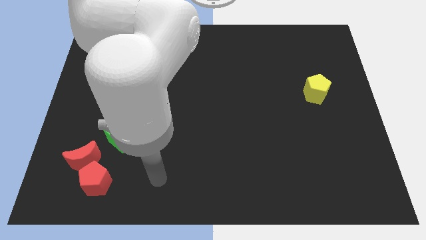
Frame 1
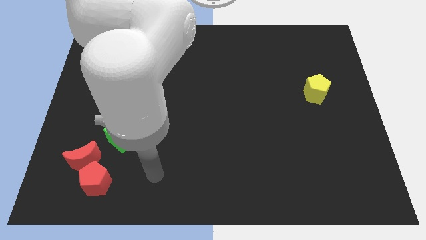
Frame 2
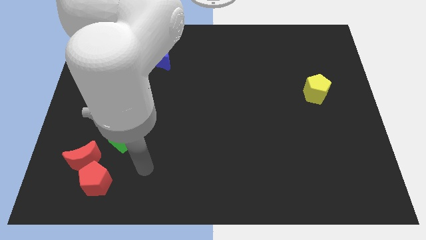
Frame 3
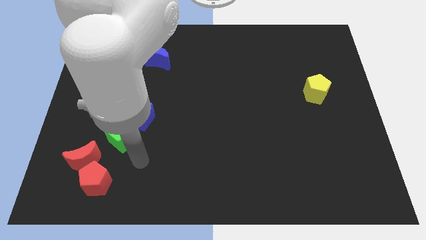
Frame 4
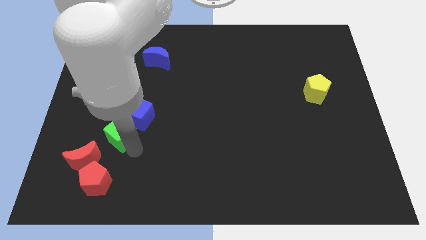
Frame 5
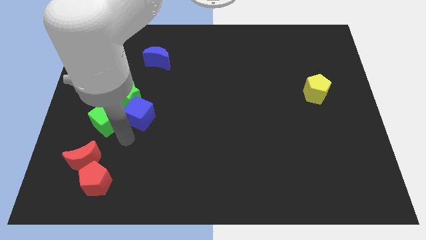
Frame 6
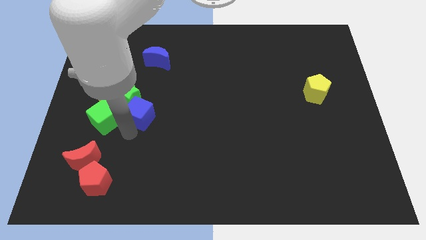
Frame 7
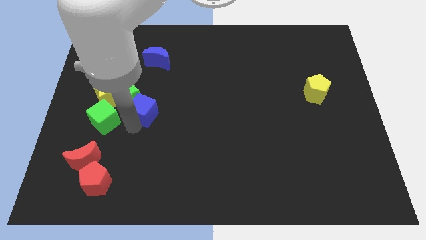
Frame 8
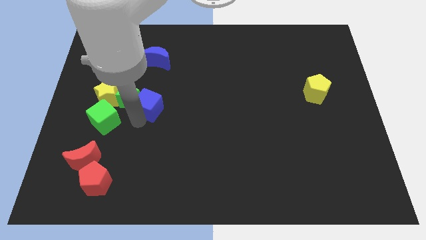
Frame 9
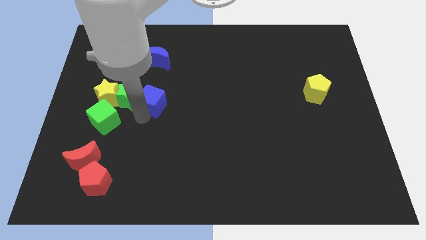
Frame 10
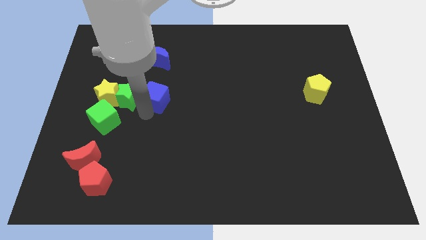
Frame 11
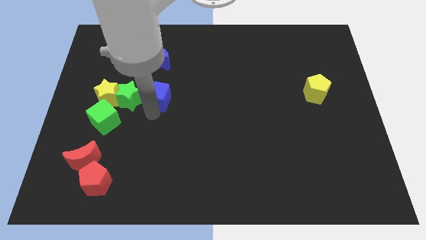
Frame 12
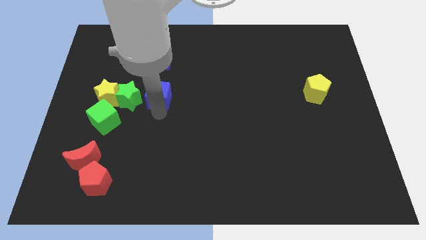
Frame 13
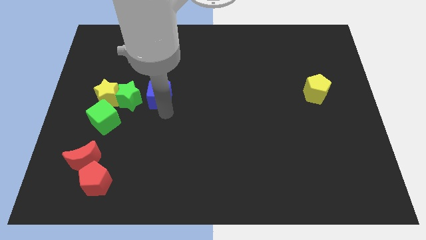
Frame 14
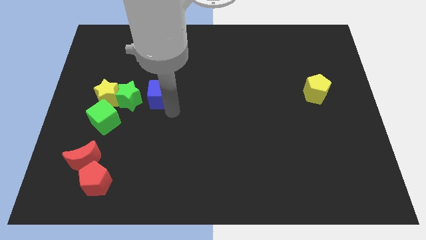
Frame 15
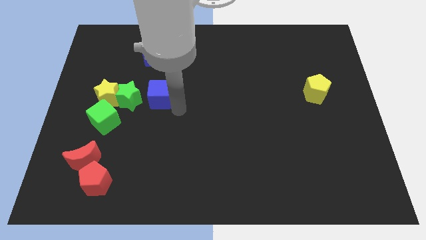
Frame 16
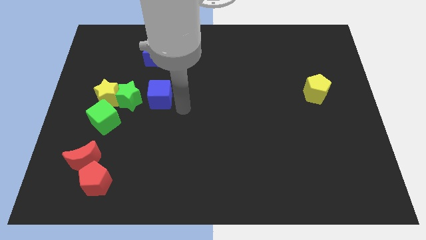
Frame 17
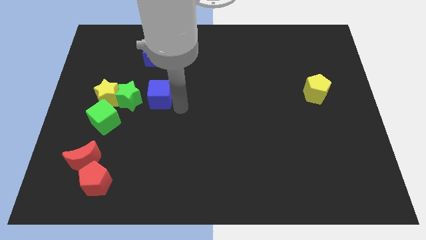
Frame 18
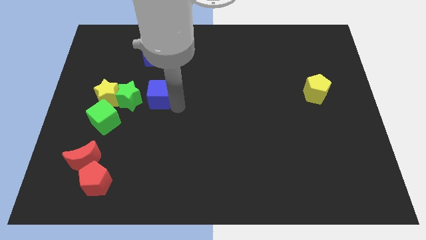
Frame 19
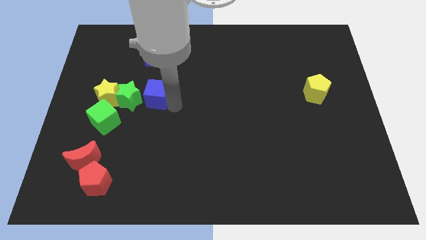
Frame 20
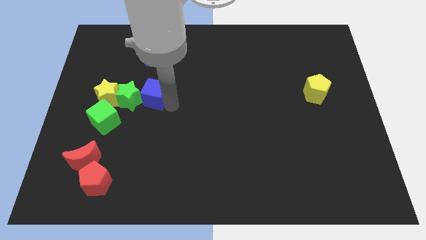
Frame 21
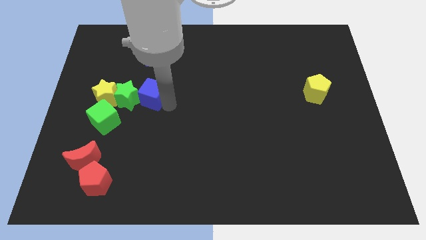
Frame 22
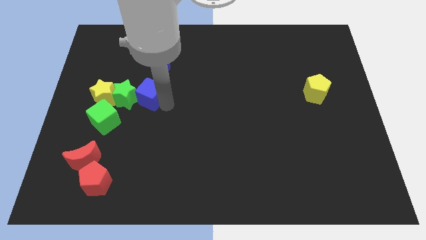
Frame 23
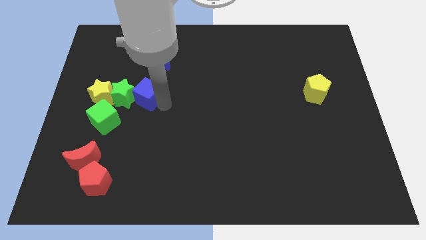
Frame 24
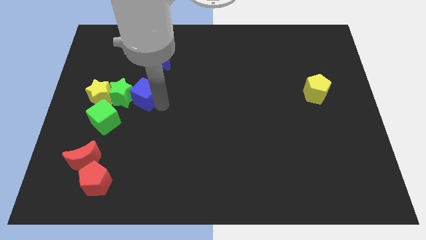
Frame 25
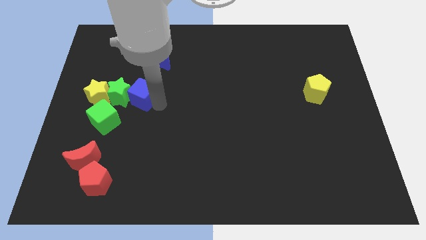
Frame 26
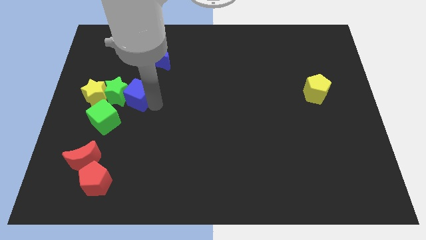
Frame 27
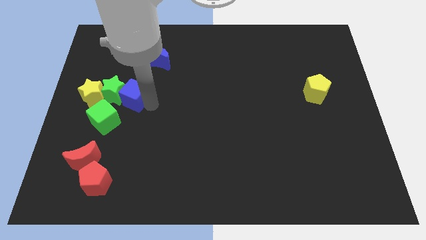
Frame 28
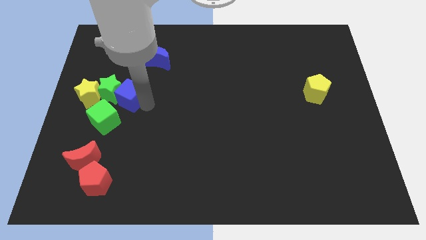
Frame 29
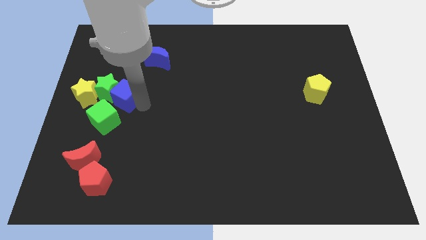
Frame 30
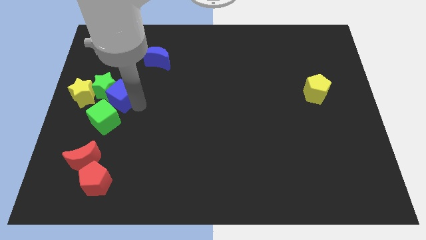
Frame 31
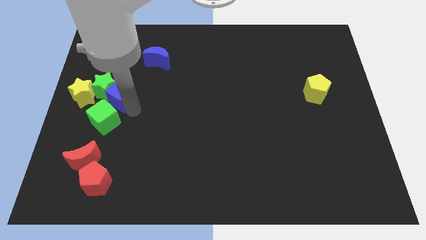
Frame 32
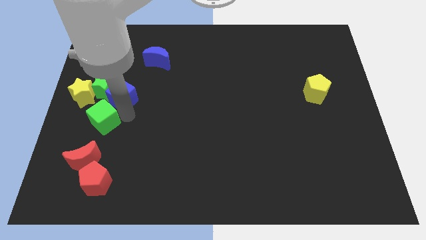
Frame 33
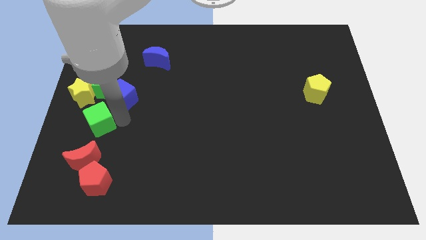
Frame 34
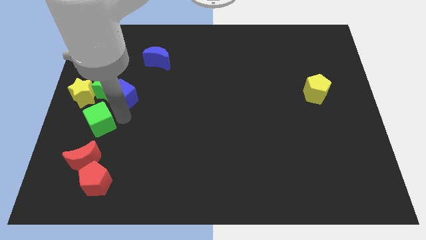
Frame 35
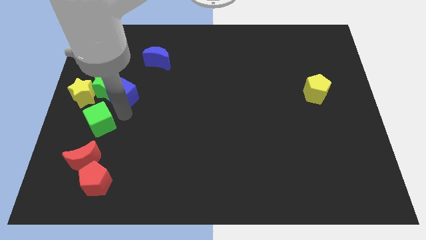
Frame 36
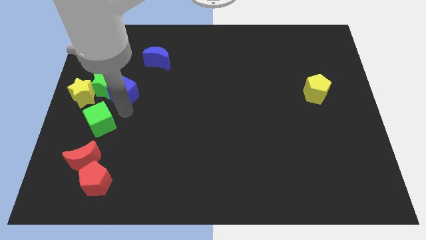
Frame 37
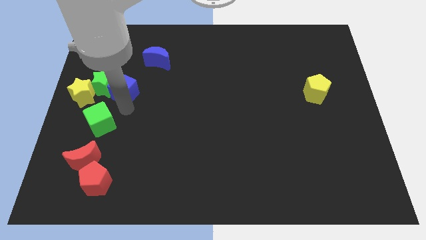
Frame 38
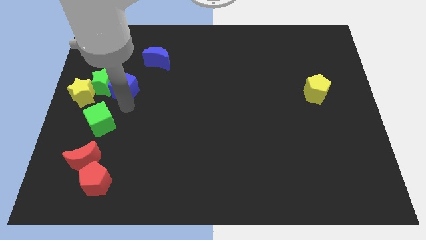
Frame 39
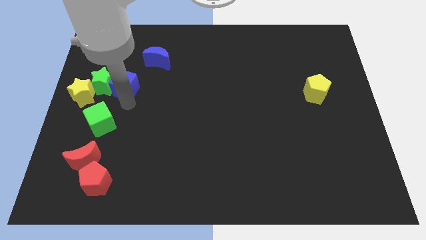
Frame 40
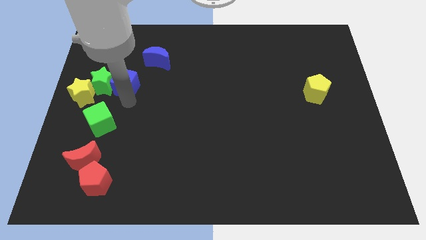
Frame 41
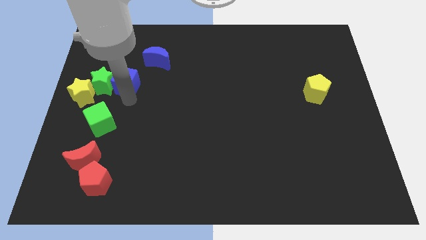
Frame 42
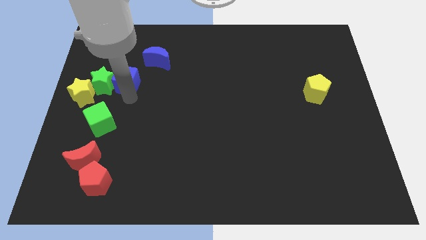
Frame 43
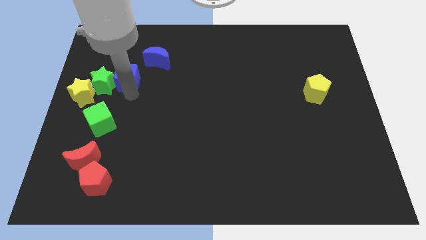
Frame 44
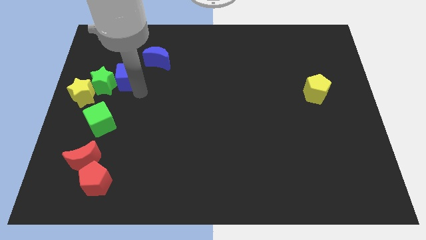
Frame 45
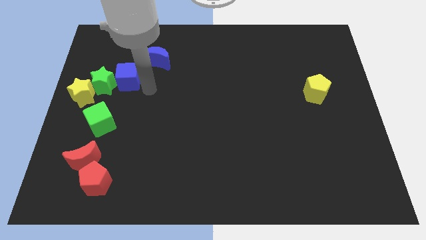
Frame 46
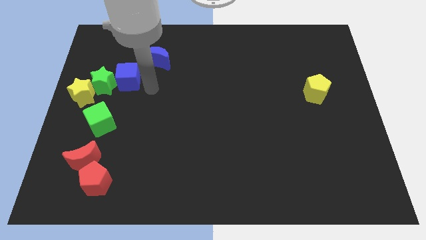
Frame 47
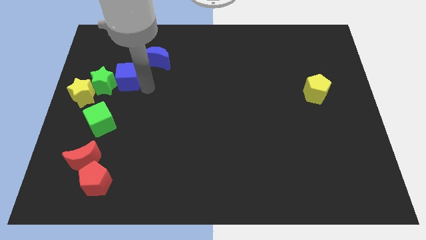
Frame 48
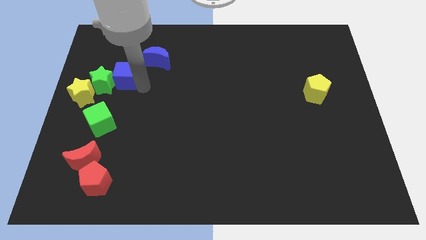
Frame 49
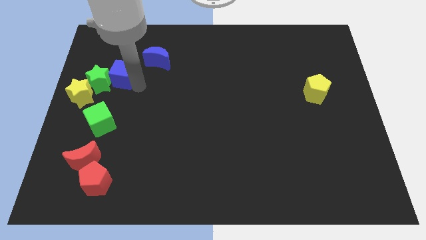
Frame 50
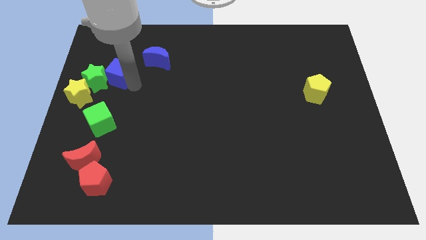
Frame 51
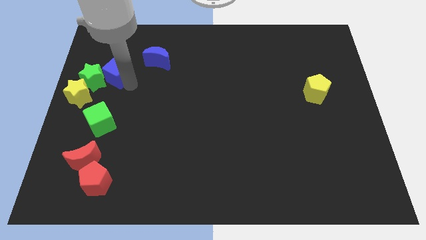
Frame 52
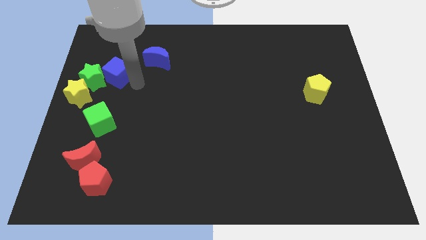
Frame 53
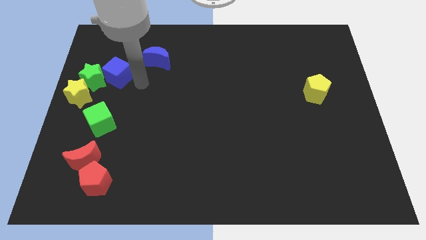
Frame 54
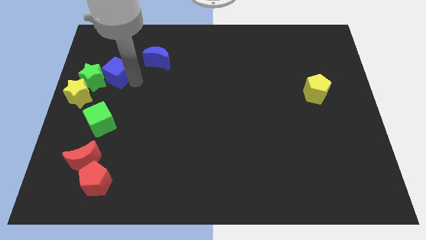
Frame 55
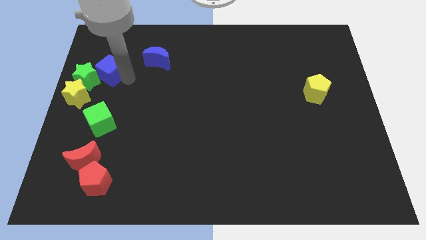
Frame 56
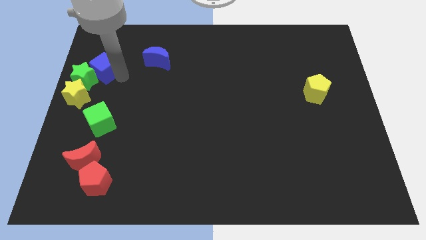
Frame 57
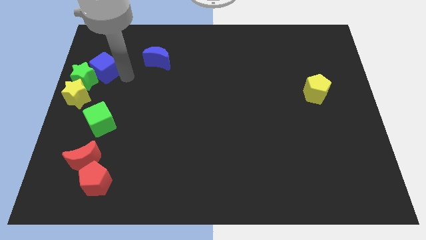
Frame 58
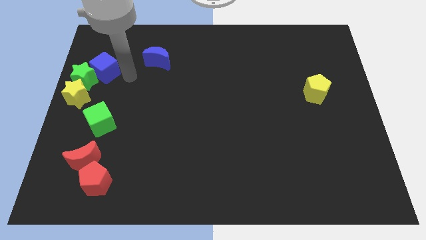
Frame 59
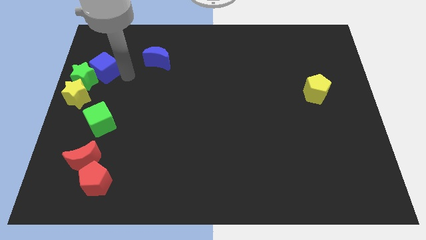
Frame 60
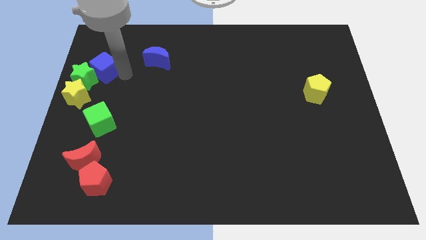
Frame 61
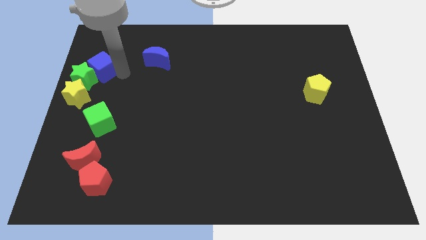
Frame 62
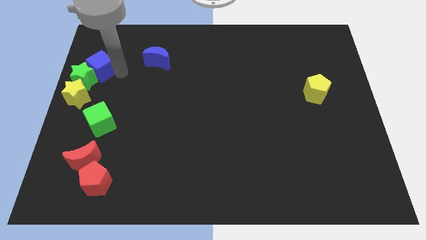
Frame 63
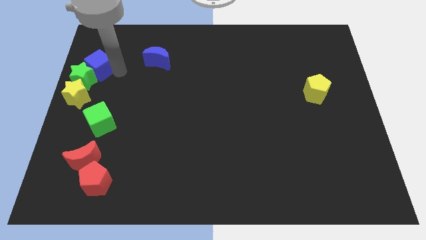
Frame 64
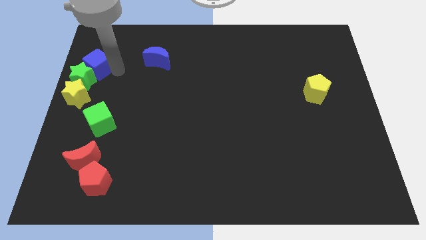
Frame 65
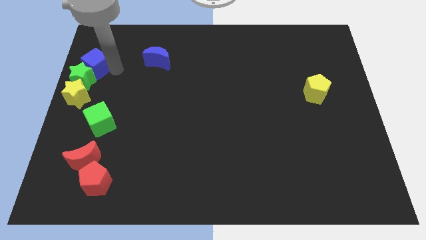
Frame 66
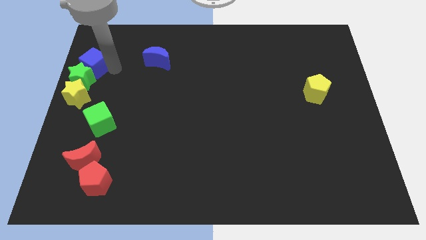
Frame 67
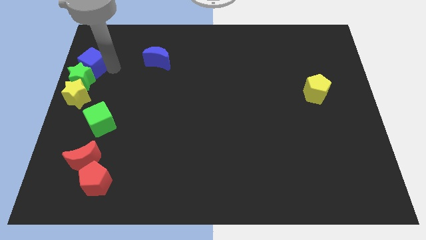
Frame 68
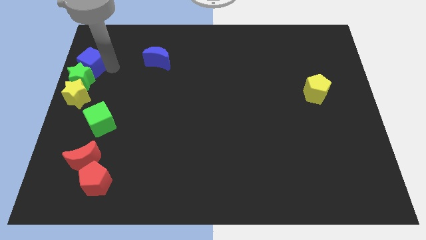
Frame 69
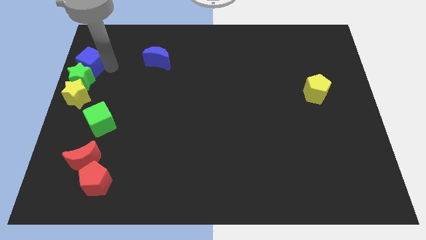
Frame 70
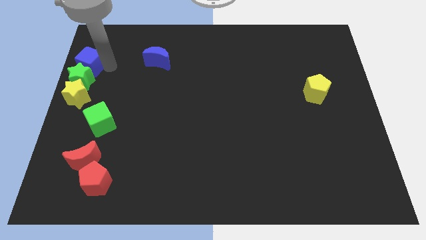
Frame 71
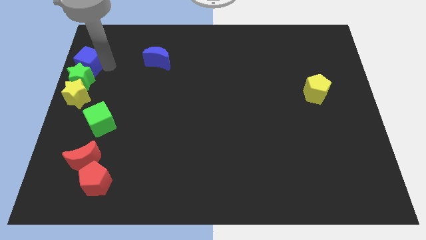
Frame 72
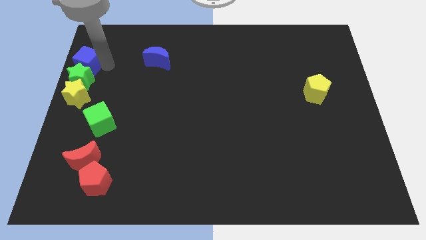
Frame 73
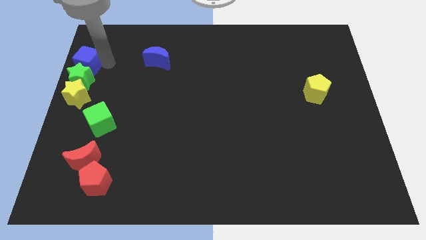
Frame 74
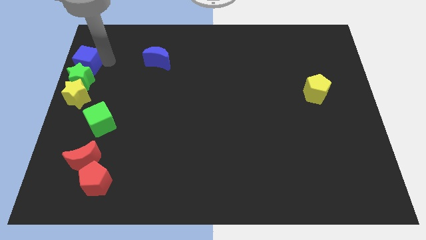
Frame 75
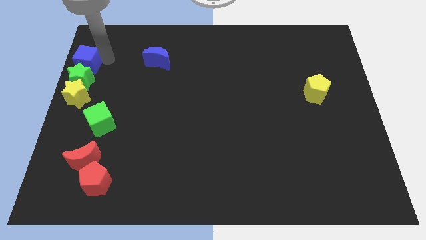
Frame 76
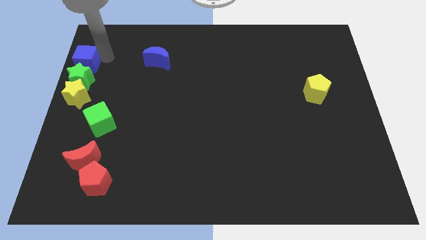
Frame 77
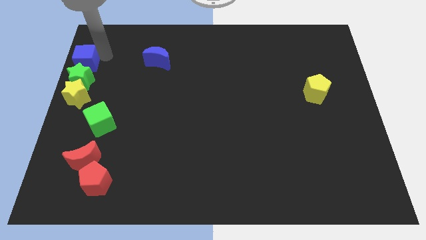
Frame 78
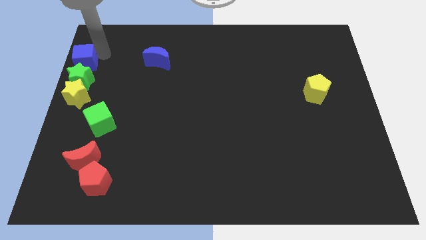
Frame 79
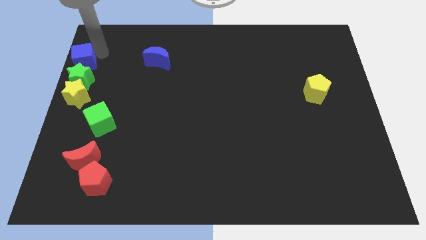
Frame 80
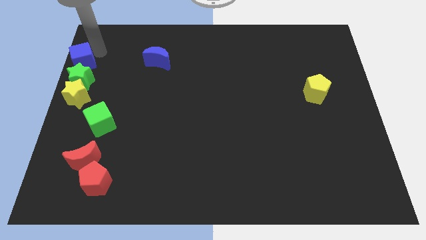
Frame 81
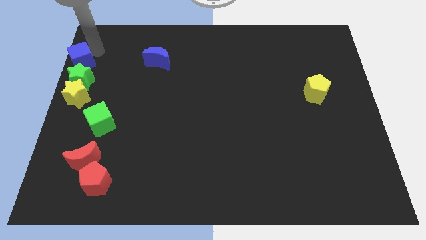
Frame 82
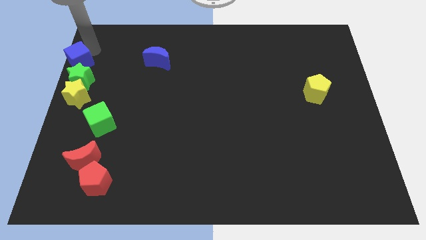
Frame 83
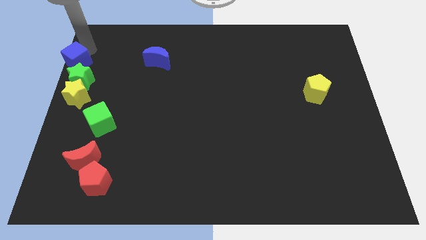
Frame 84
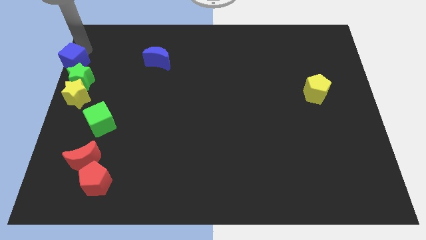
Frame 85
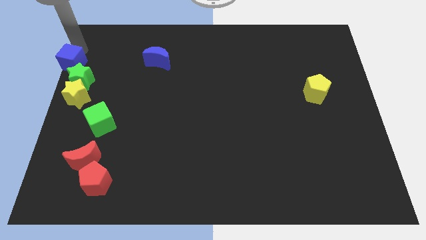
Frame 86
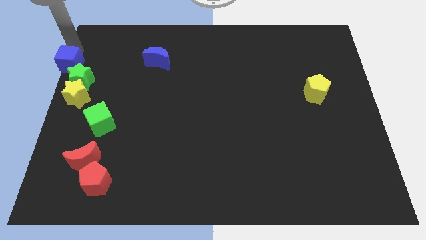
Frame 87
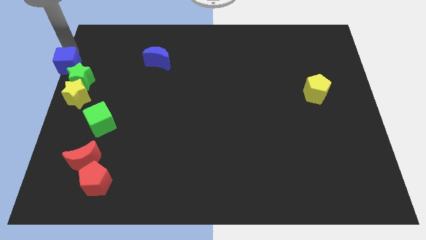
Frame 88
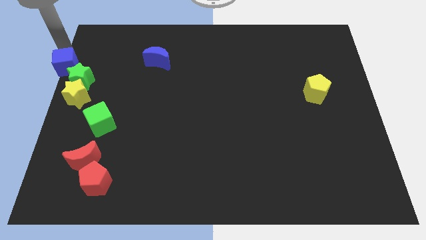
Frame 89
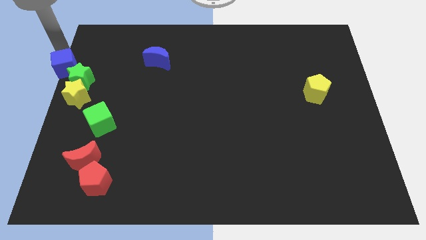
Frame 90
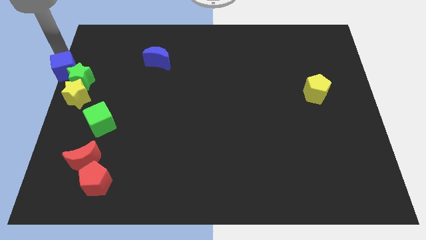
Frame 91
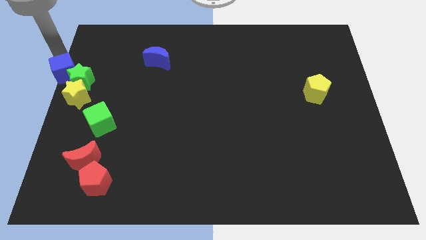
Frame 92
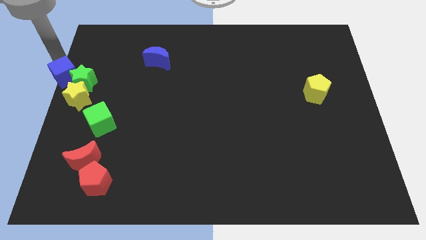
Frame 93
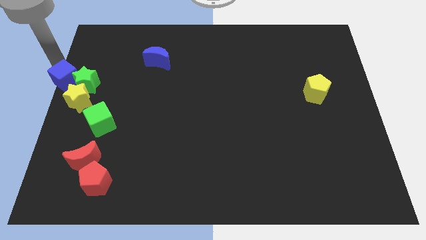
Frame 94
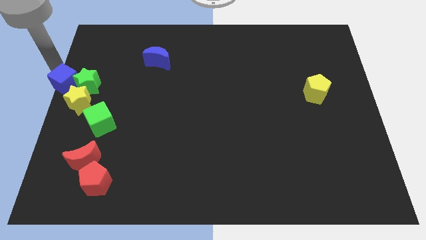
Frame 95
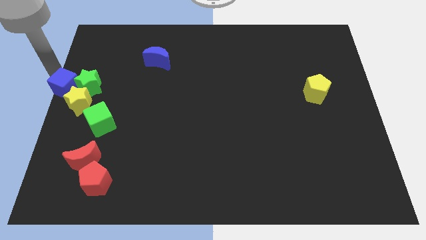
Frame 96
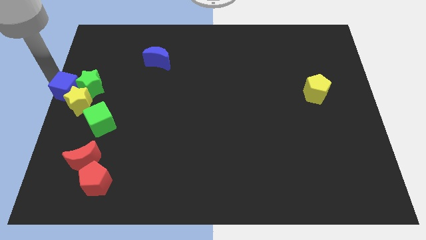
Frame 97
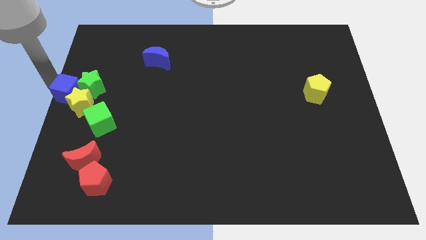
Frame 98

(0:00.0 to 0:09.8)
slide the blue cube to the top of the yellow star
